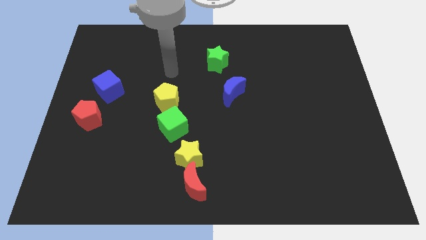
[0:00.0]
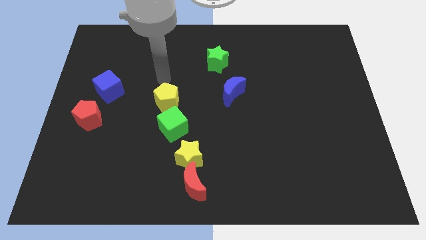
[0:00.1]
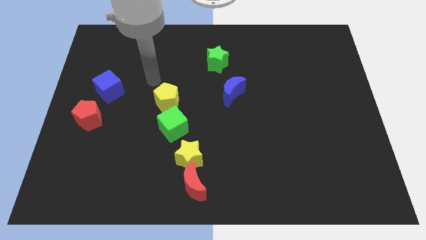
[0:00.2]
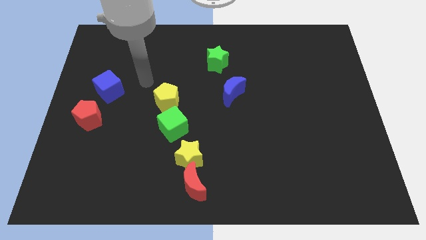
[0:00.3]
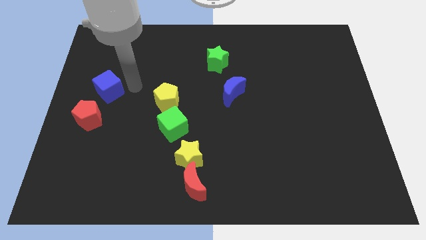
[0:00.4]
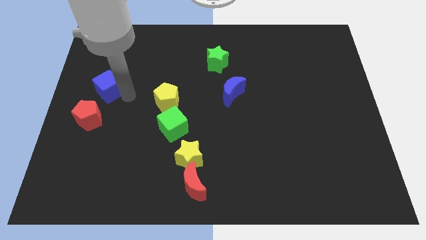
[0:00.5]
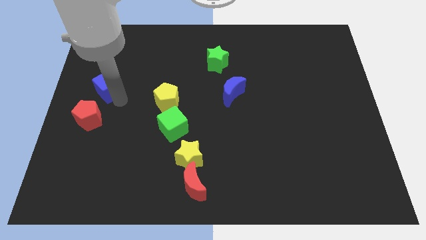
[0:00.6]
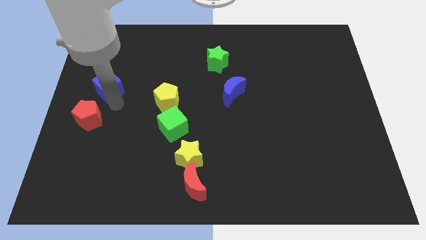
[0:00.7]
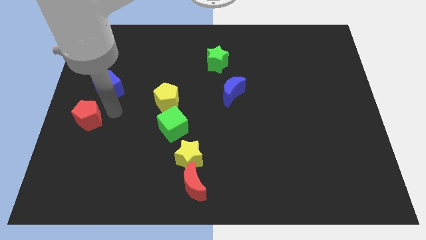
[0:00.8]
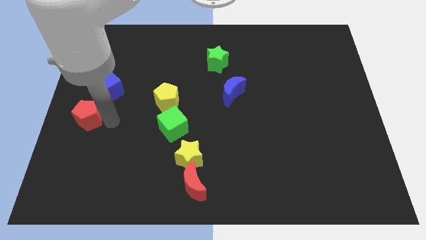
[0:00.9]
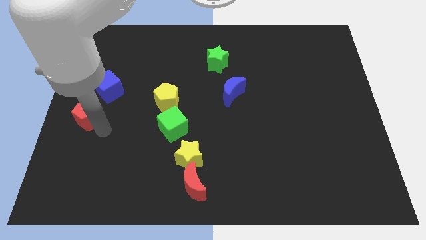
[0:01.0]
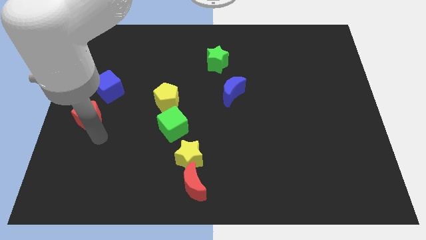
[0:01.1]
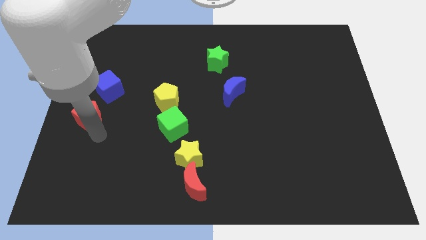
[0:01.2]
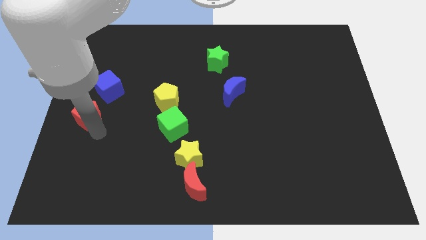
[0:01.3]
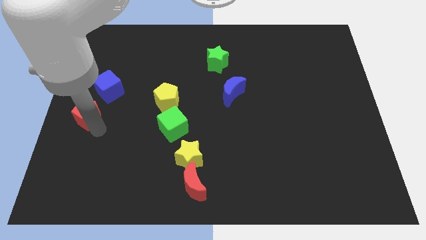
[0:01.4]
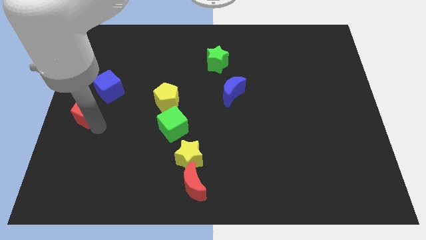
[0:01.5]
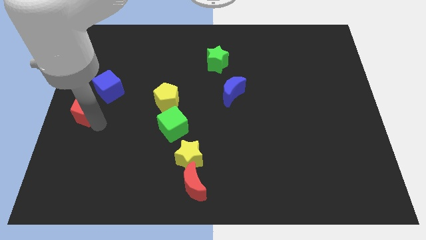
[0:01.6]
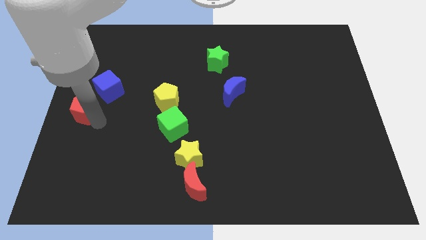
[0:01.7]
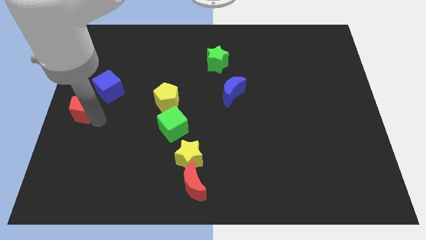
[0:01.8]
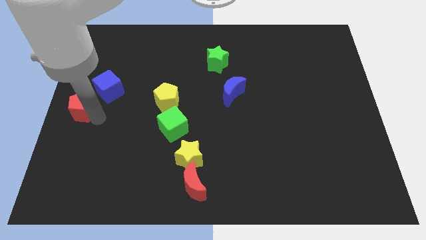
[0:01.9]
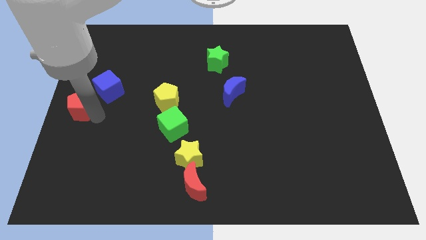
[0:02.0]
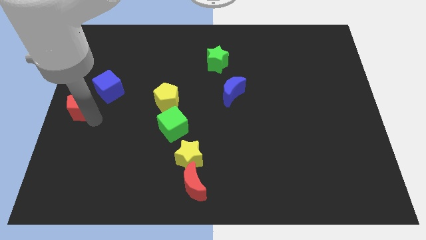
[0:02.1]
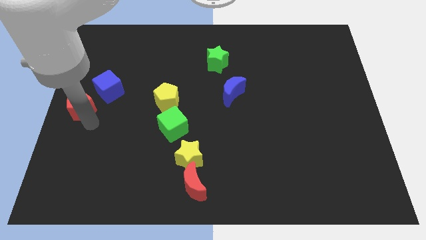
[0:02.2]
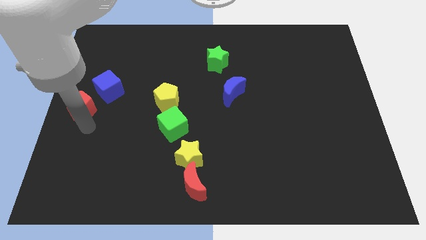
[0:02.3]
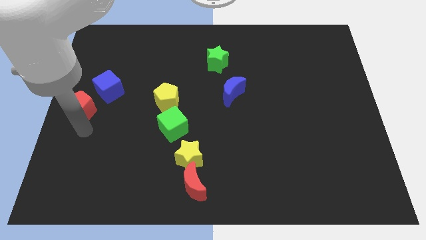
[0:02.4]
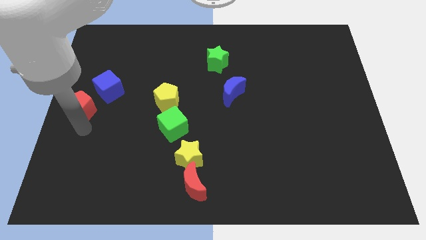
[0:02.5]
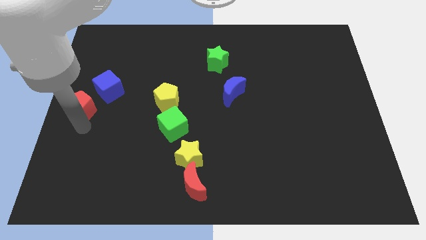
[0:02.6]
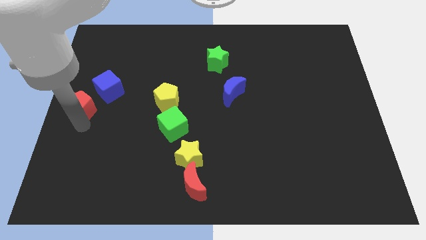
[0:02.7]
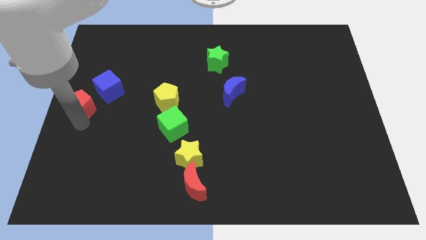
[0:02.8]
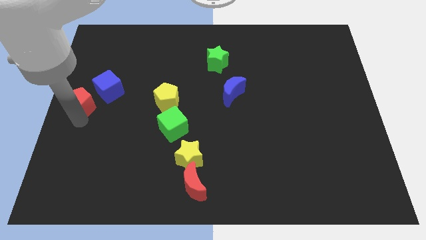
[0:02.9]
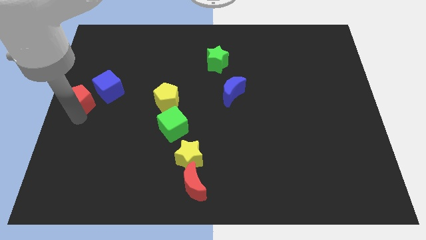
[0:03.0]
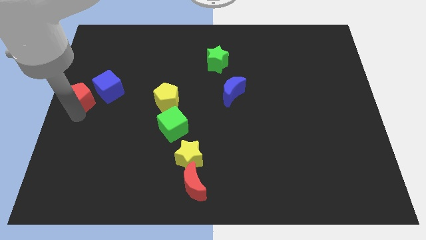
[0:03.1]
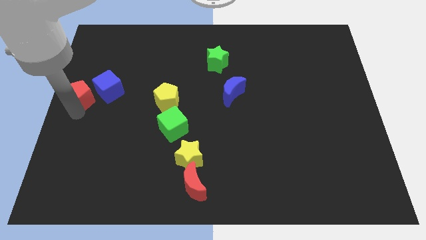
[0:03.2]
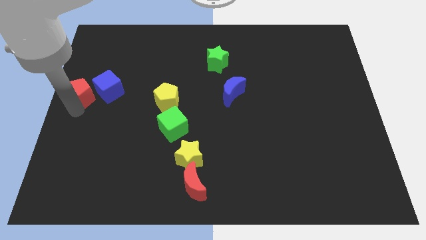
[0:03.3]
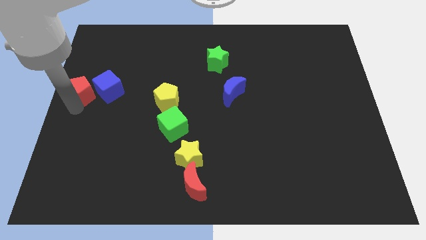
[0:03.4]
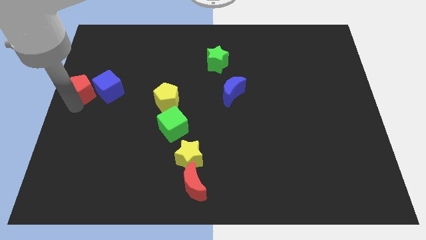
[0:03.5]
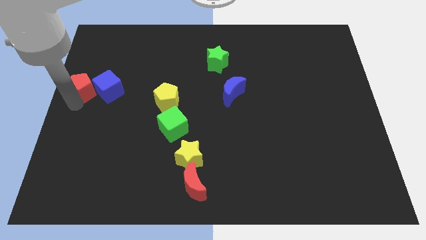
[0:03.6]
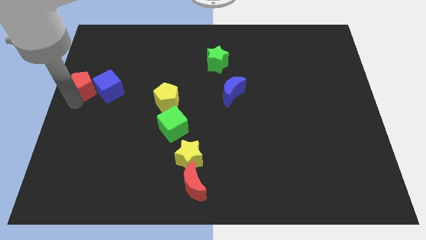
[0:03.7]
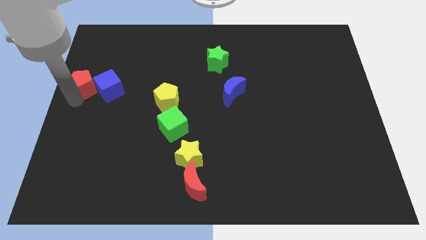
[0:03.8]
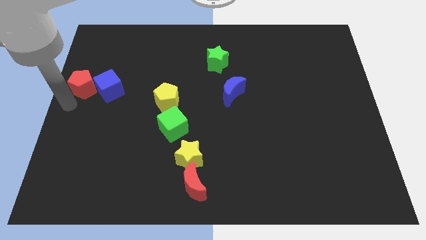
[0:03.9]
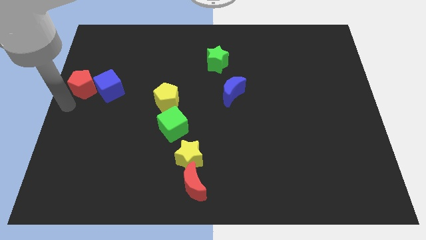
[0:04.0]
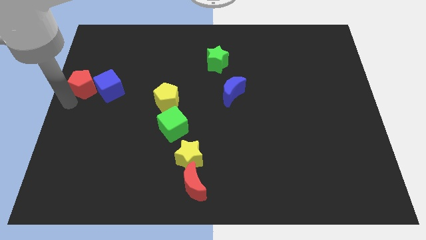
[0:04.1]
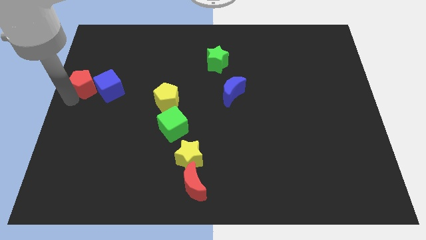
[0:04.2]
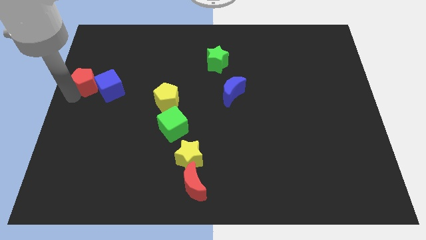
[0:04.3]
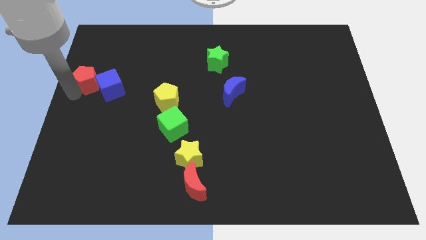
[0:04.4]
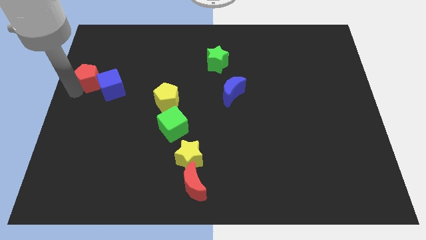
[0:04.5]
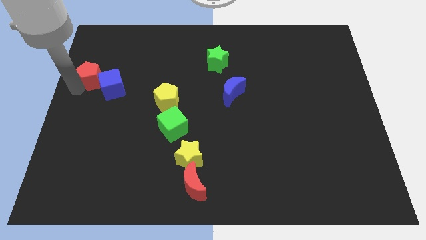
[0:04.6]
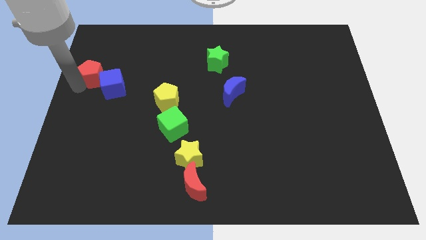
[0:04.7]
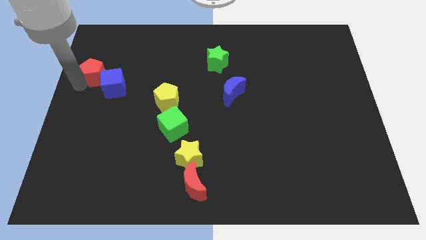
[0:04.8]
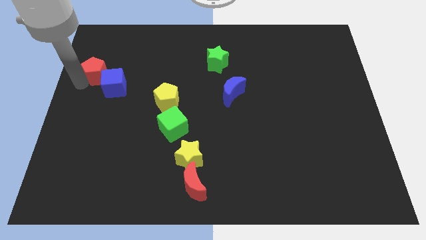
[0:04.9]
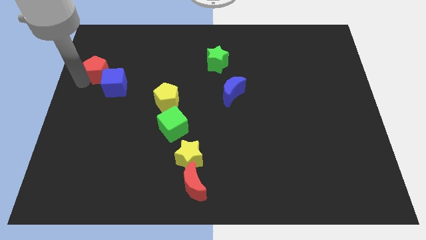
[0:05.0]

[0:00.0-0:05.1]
move the red pentagon to the top side of the blue cube

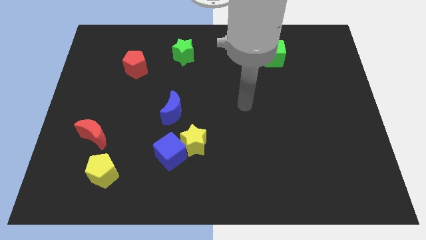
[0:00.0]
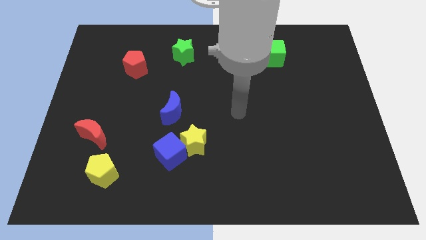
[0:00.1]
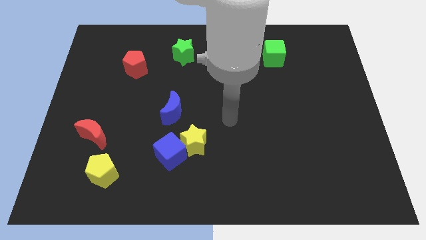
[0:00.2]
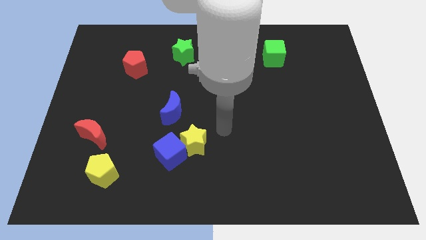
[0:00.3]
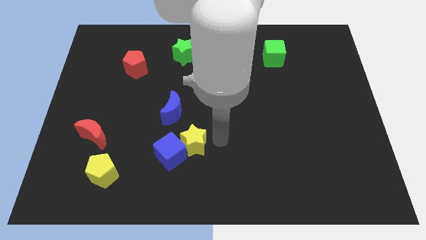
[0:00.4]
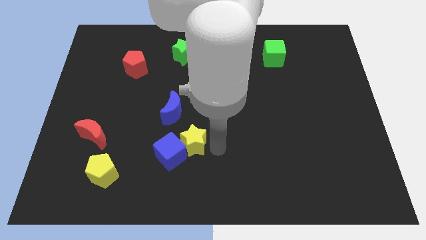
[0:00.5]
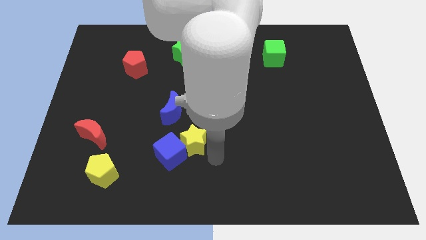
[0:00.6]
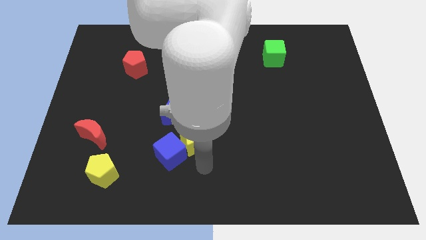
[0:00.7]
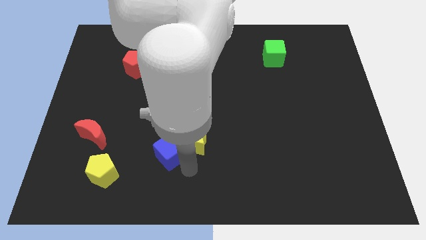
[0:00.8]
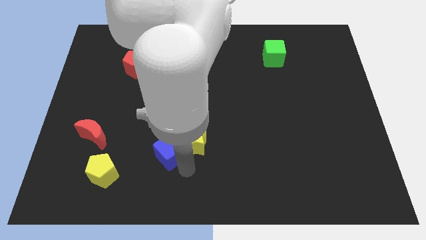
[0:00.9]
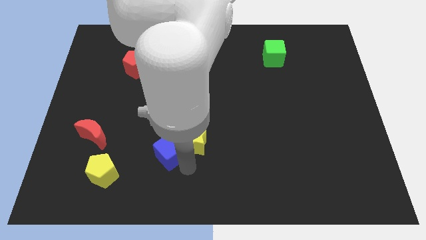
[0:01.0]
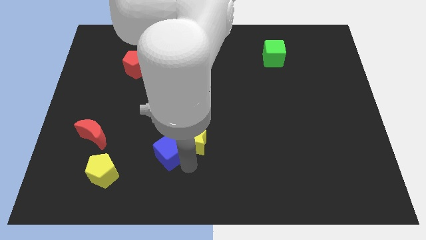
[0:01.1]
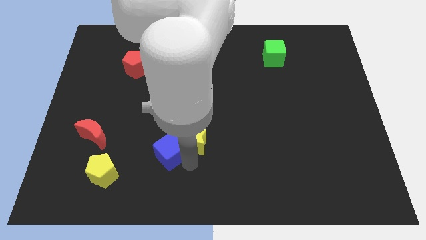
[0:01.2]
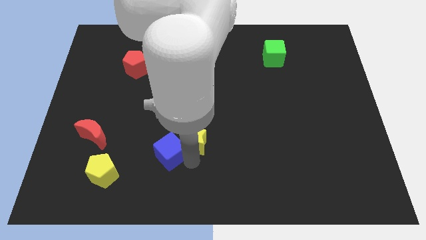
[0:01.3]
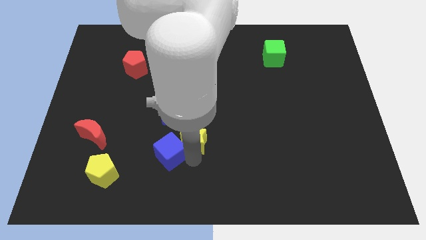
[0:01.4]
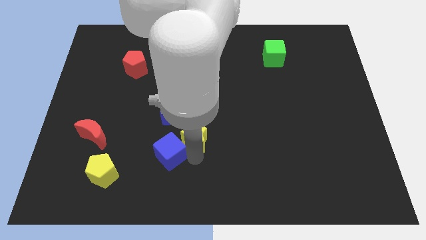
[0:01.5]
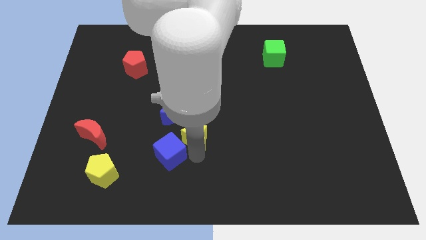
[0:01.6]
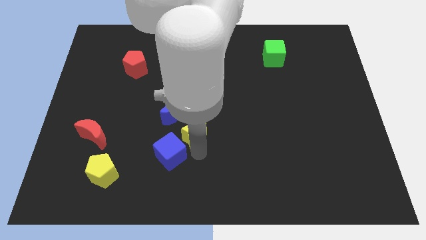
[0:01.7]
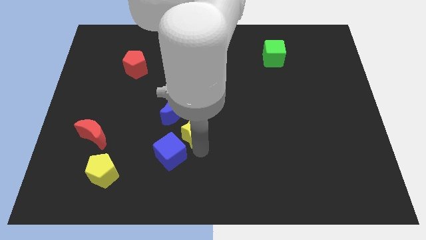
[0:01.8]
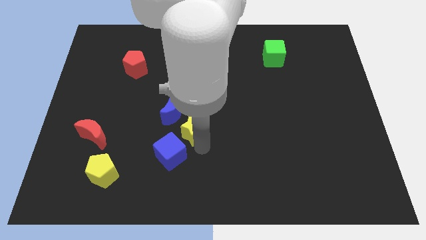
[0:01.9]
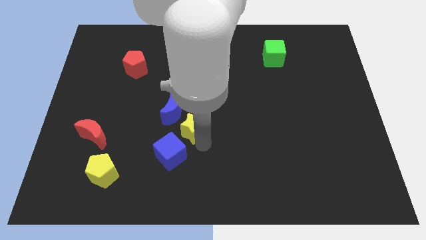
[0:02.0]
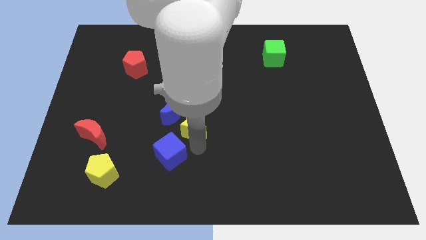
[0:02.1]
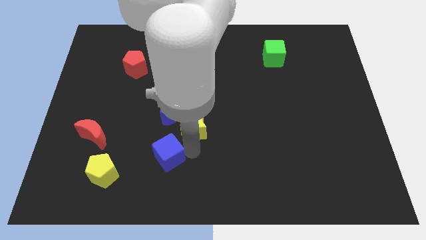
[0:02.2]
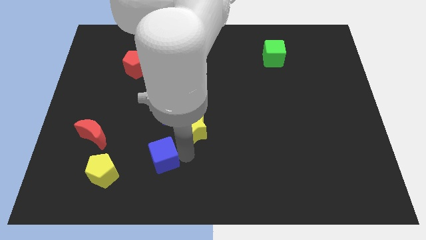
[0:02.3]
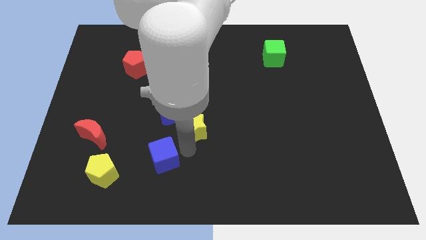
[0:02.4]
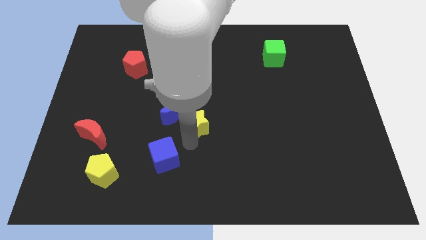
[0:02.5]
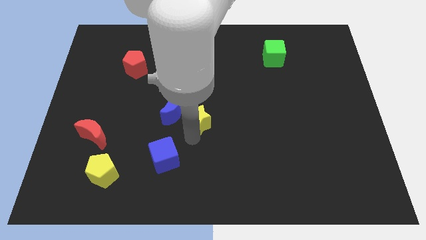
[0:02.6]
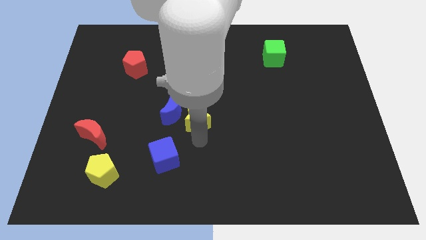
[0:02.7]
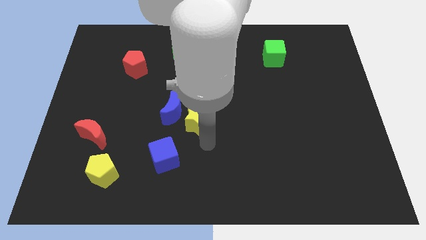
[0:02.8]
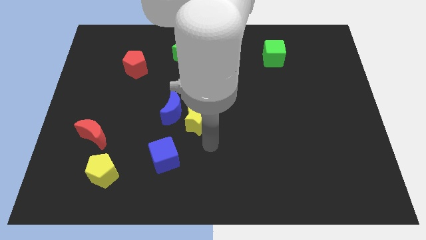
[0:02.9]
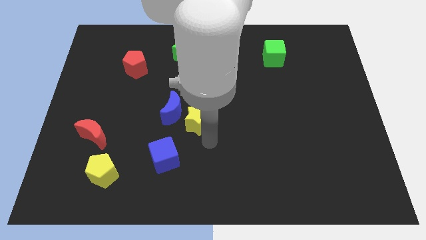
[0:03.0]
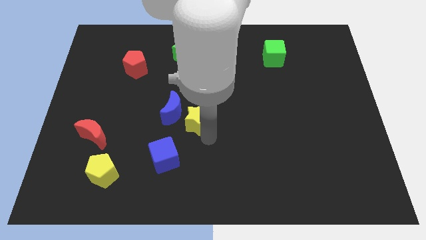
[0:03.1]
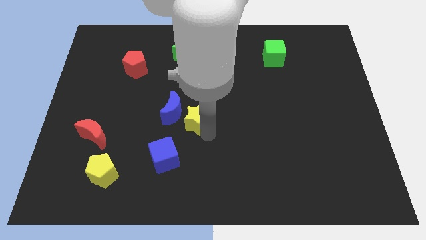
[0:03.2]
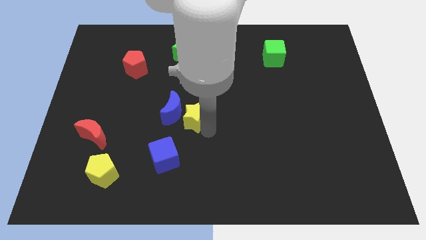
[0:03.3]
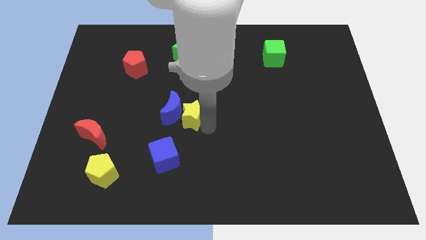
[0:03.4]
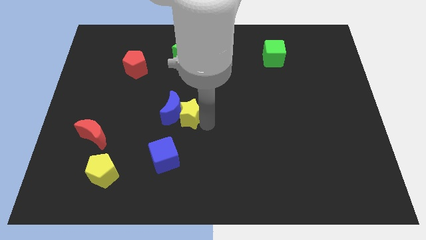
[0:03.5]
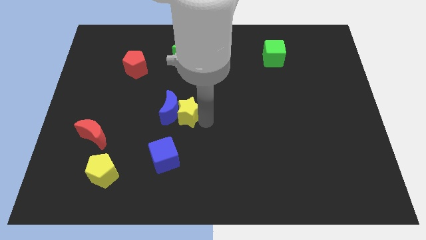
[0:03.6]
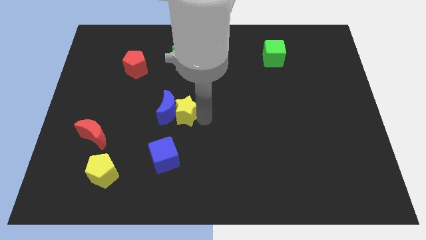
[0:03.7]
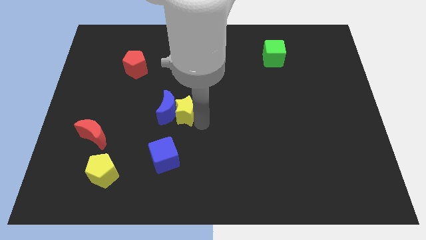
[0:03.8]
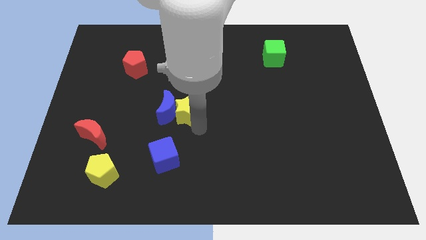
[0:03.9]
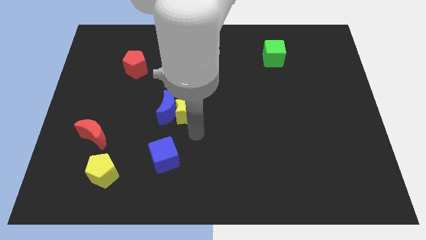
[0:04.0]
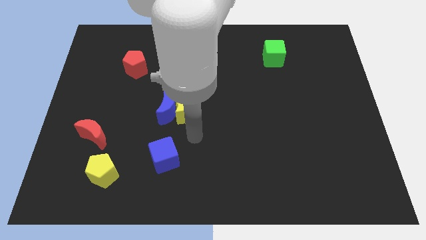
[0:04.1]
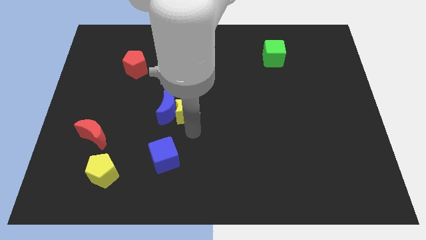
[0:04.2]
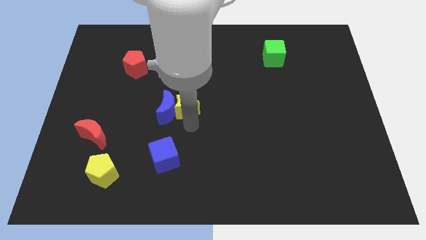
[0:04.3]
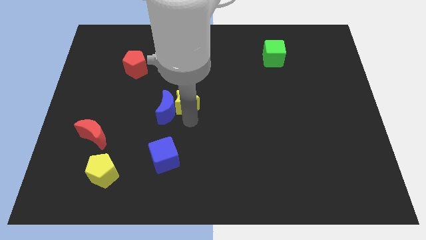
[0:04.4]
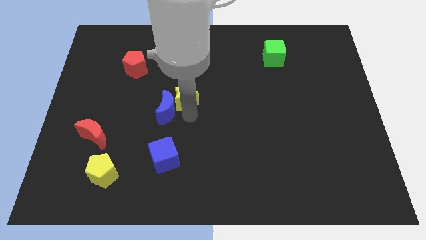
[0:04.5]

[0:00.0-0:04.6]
put the yellow star to the top of the blue moon
